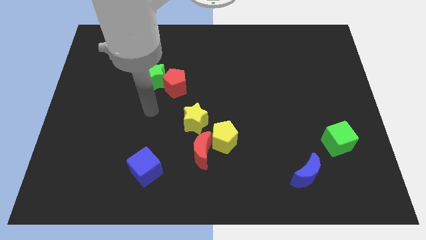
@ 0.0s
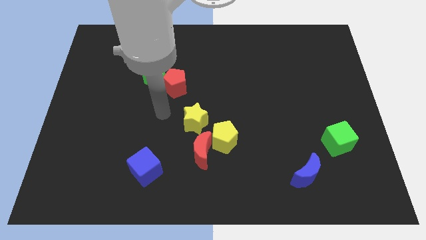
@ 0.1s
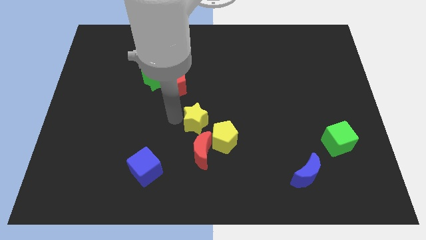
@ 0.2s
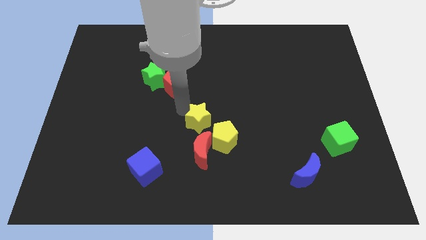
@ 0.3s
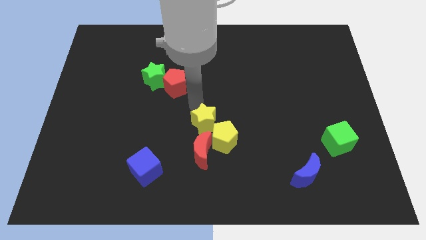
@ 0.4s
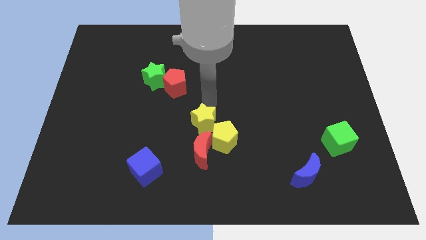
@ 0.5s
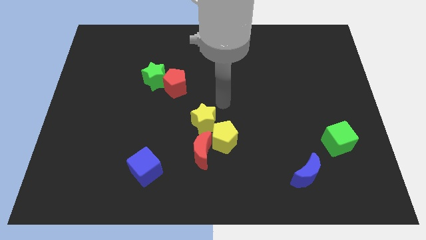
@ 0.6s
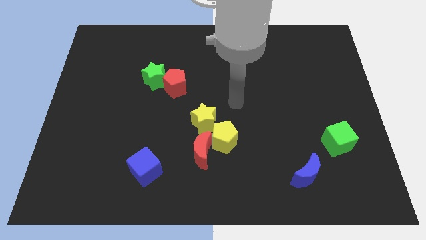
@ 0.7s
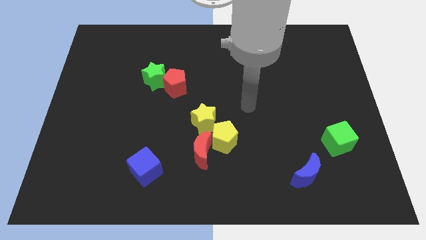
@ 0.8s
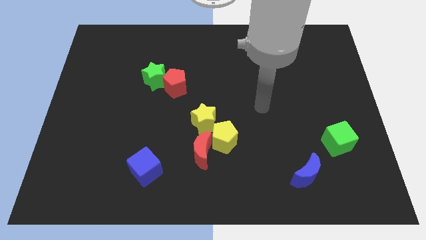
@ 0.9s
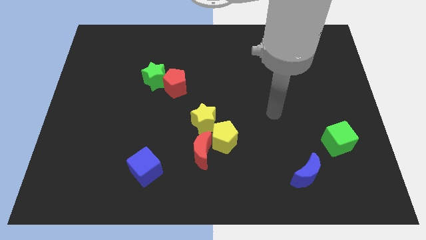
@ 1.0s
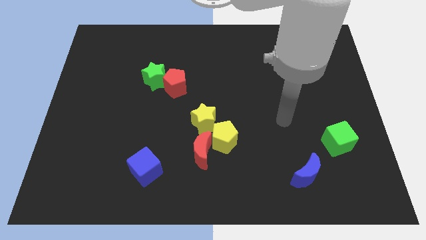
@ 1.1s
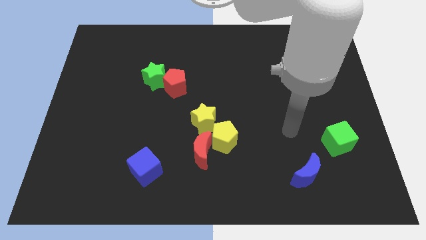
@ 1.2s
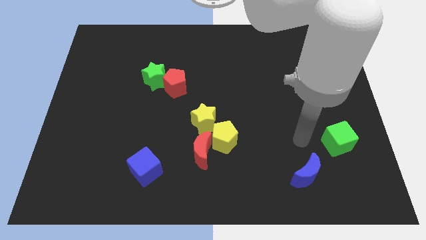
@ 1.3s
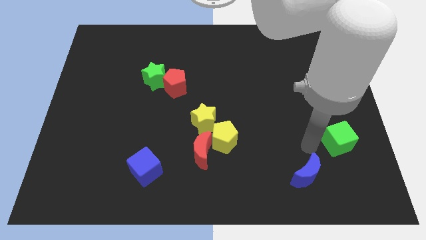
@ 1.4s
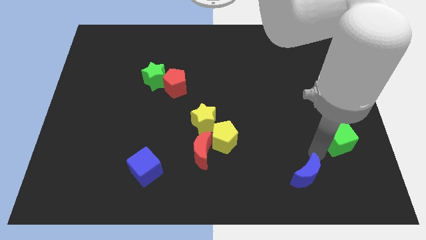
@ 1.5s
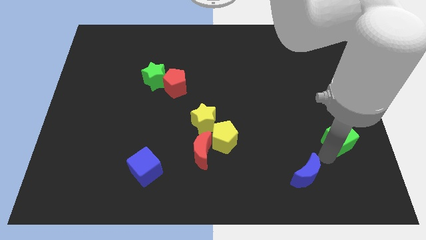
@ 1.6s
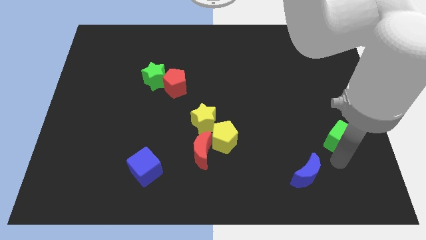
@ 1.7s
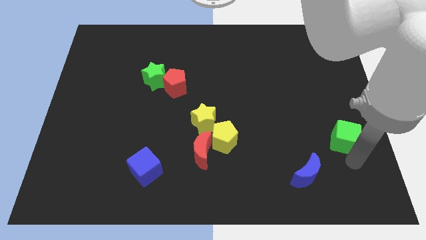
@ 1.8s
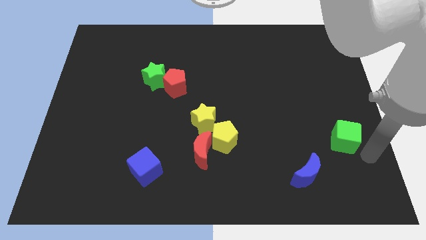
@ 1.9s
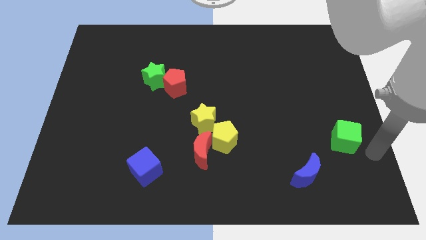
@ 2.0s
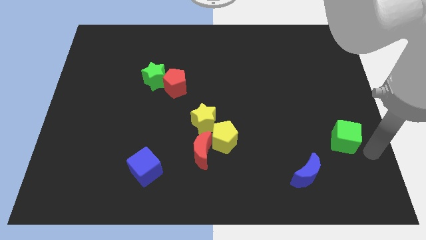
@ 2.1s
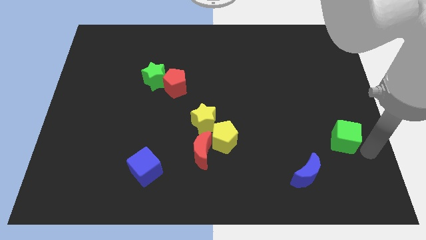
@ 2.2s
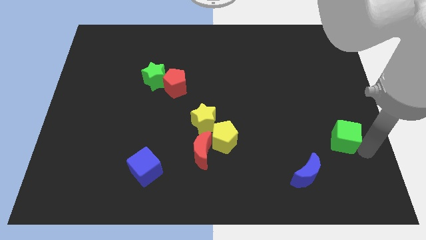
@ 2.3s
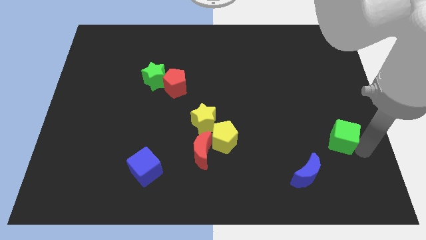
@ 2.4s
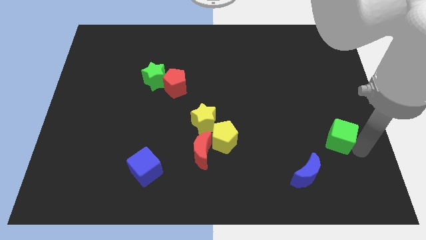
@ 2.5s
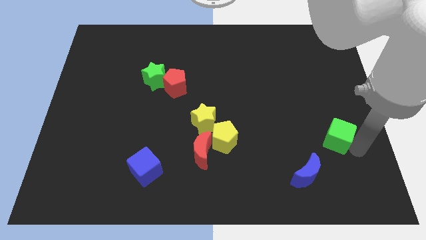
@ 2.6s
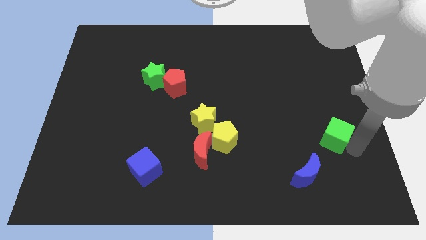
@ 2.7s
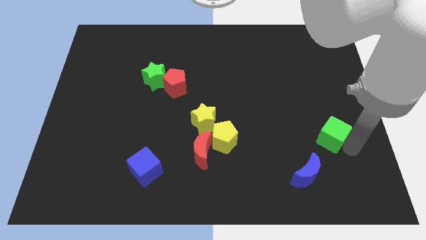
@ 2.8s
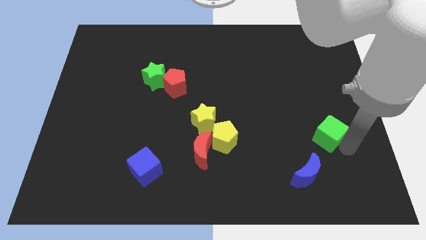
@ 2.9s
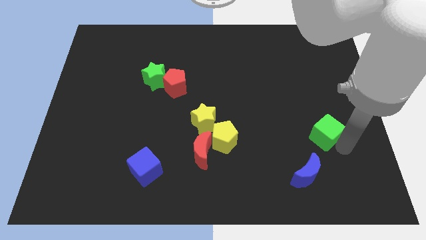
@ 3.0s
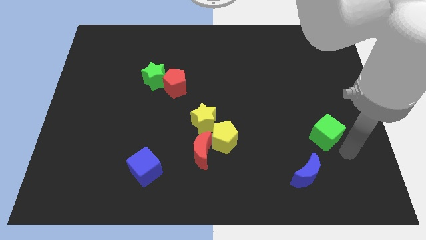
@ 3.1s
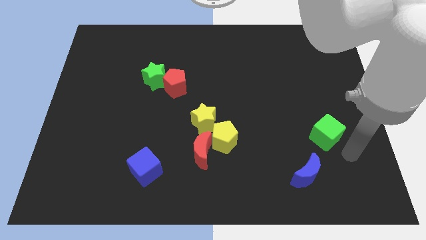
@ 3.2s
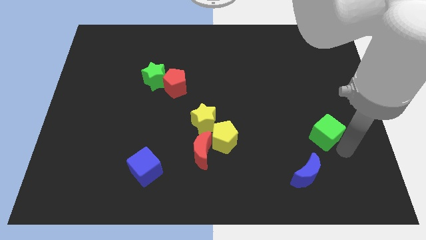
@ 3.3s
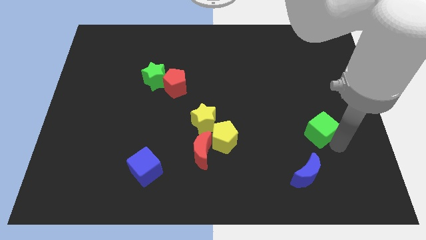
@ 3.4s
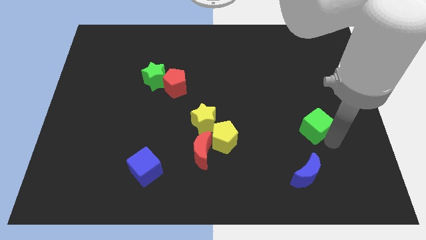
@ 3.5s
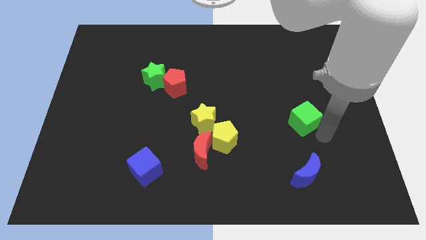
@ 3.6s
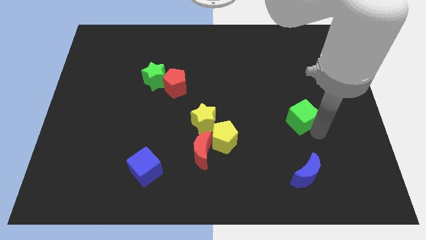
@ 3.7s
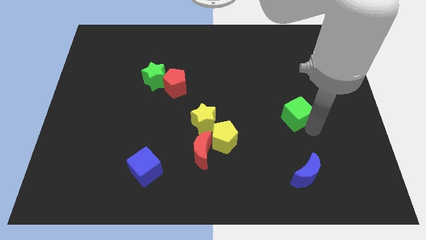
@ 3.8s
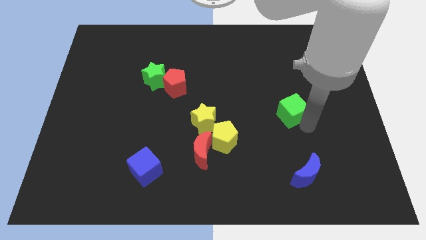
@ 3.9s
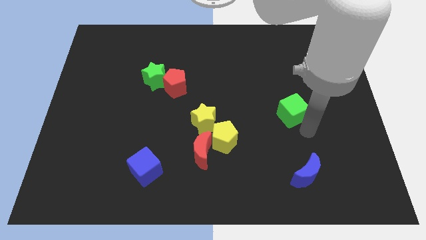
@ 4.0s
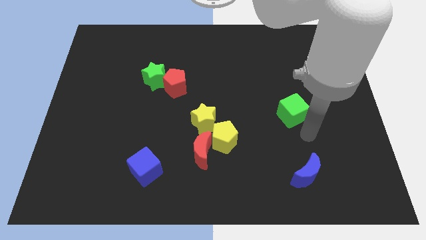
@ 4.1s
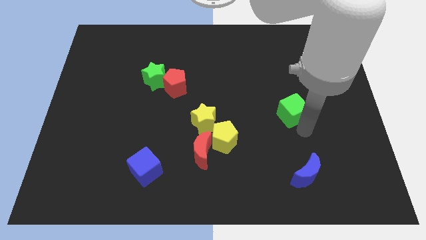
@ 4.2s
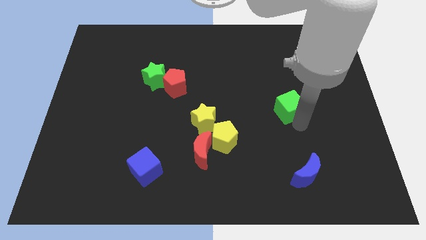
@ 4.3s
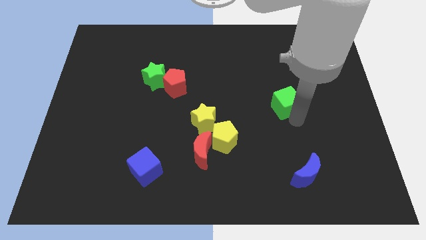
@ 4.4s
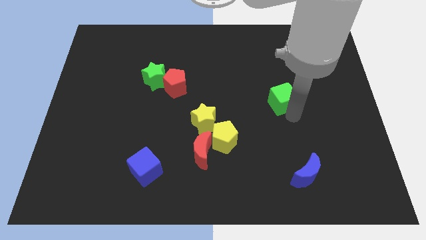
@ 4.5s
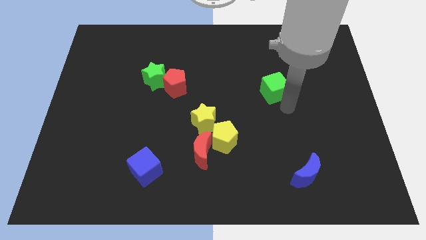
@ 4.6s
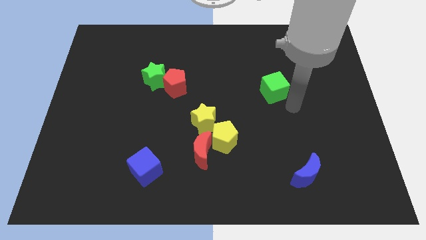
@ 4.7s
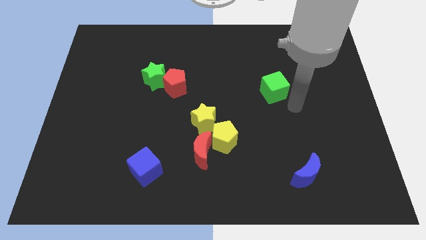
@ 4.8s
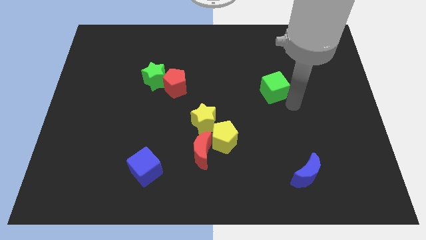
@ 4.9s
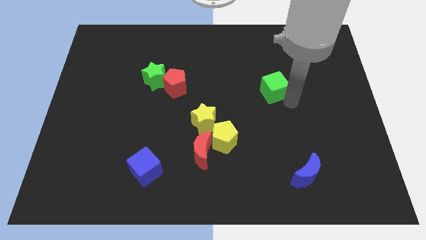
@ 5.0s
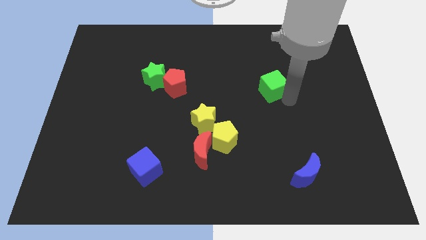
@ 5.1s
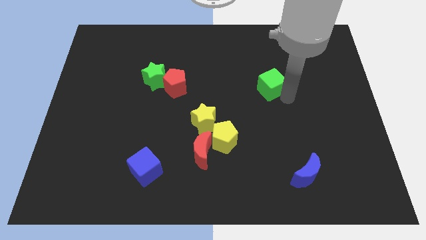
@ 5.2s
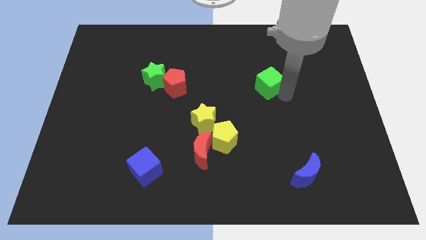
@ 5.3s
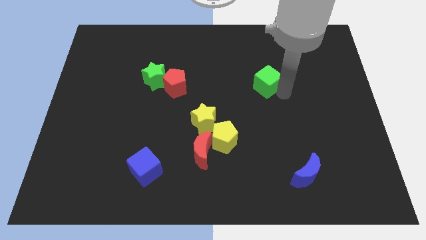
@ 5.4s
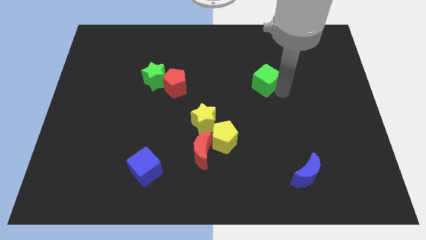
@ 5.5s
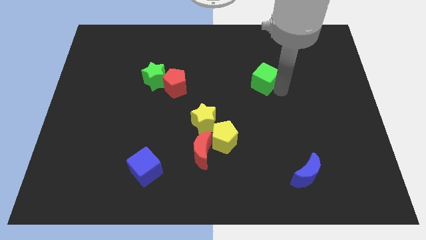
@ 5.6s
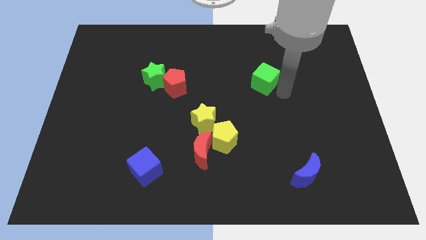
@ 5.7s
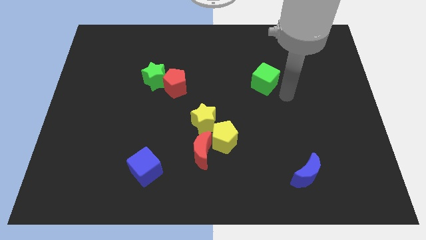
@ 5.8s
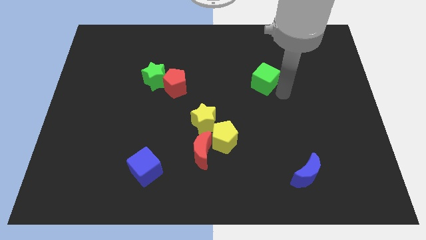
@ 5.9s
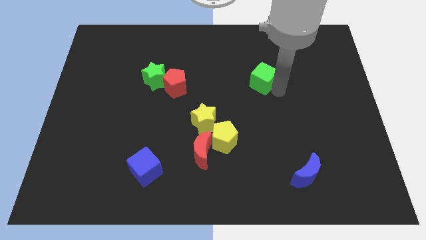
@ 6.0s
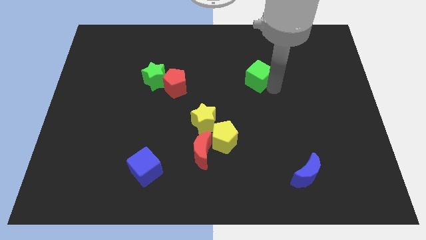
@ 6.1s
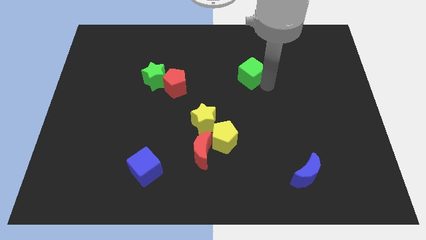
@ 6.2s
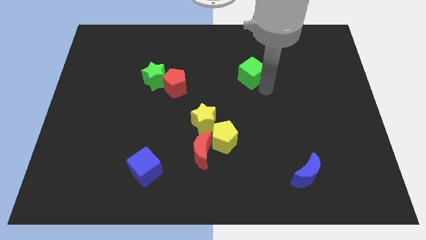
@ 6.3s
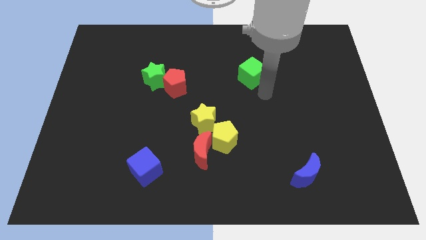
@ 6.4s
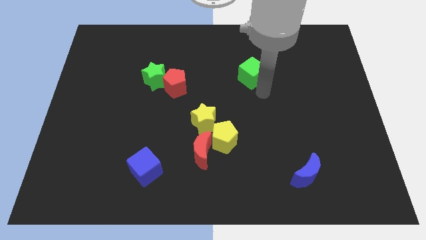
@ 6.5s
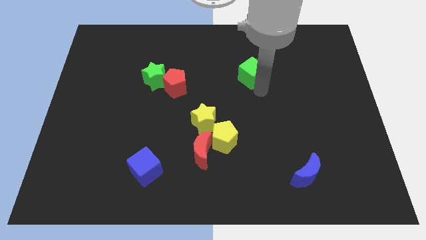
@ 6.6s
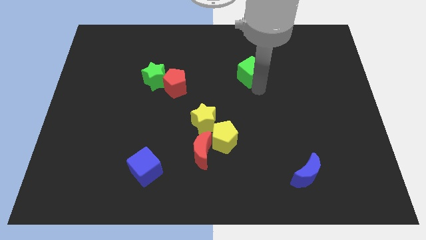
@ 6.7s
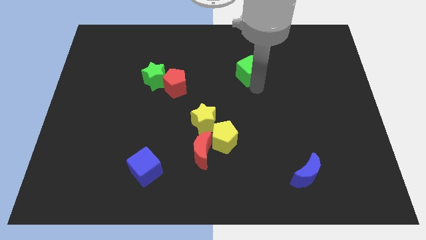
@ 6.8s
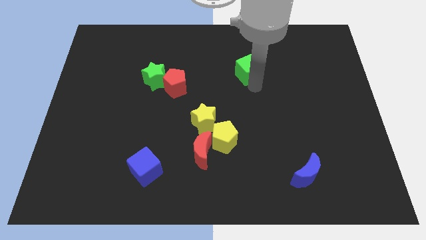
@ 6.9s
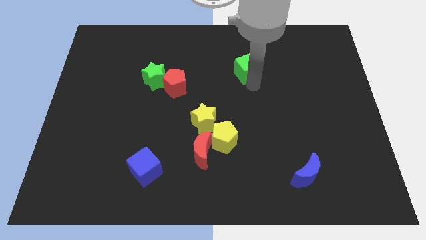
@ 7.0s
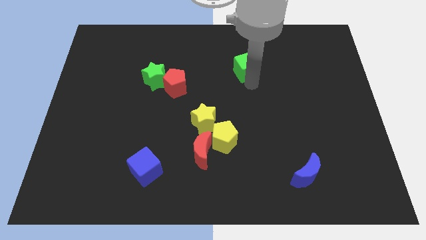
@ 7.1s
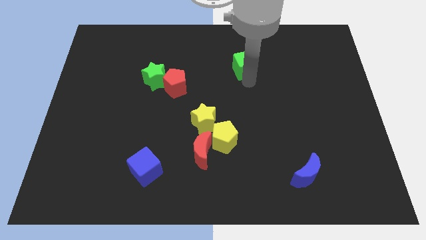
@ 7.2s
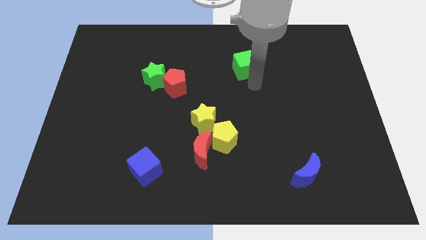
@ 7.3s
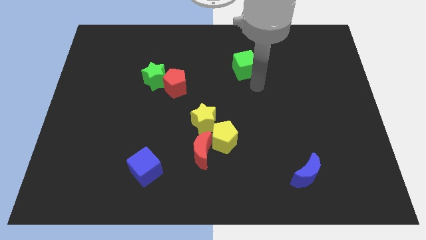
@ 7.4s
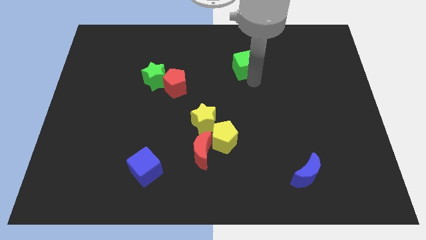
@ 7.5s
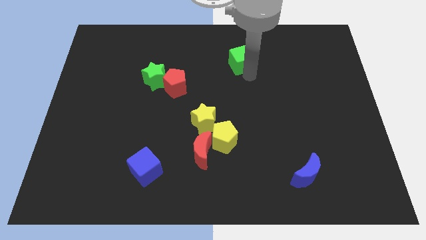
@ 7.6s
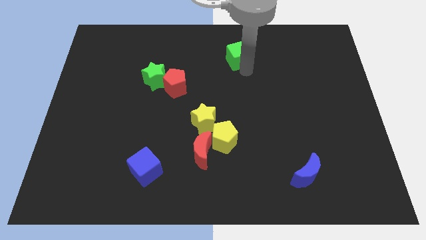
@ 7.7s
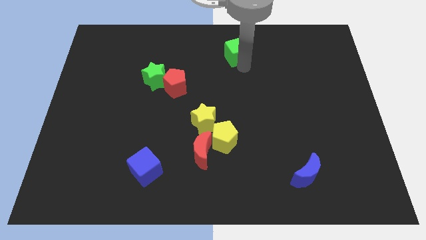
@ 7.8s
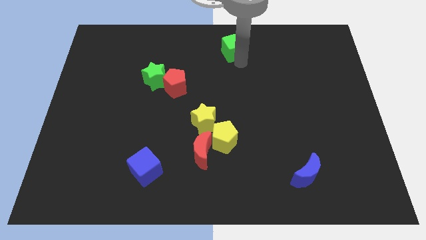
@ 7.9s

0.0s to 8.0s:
push the green cube to the towards your base
